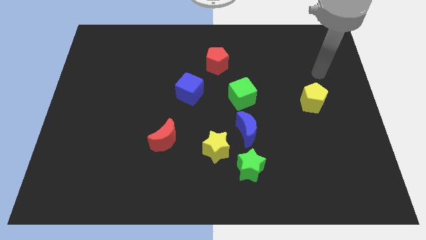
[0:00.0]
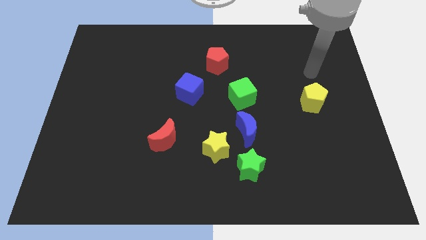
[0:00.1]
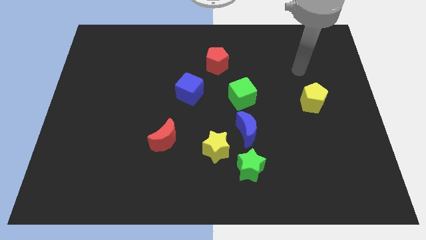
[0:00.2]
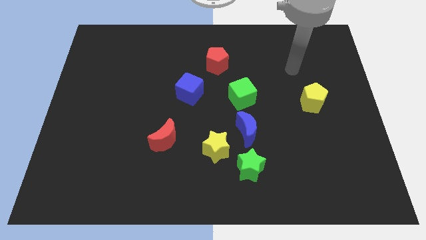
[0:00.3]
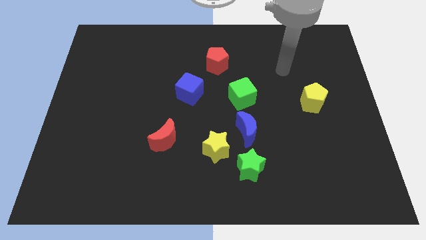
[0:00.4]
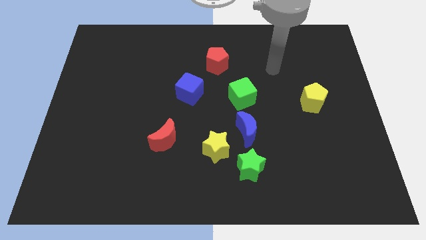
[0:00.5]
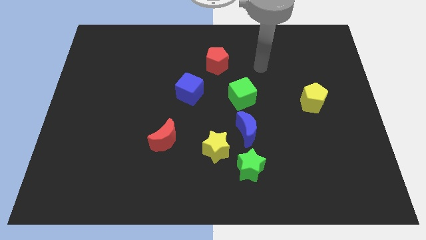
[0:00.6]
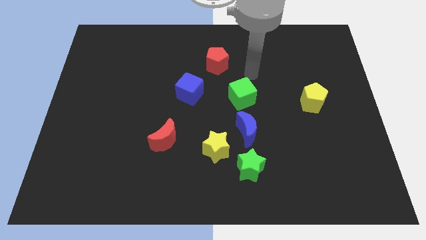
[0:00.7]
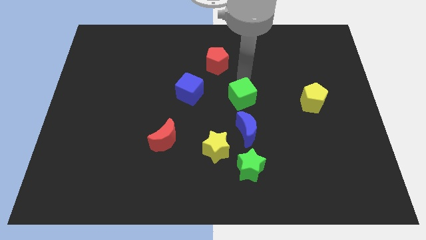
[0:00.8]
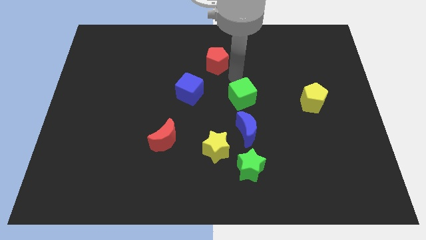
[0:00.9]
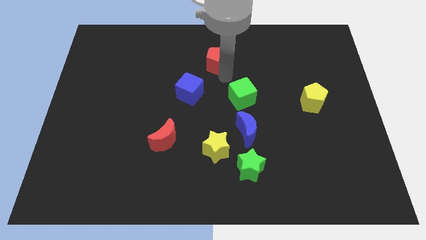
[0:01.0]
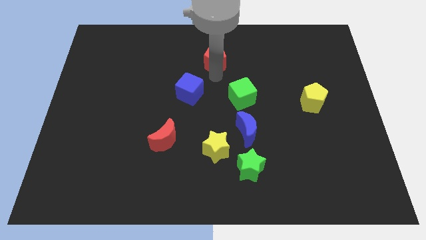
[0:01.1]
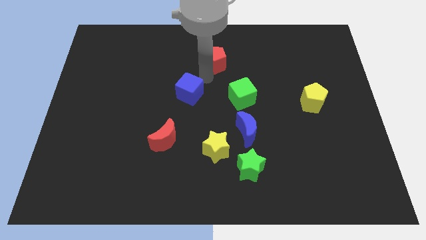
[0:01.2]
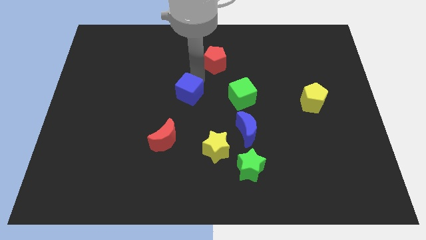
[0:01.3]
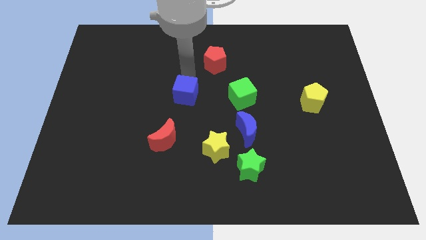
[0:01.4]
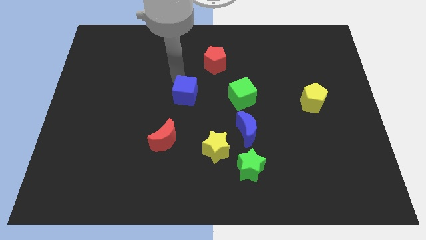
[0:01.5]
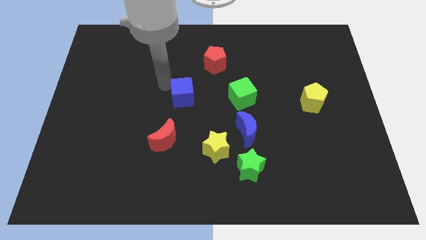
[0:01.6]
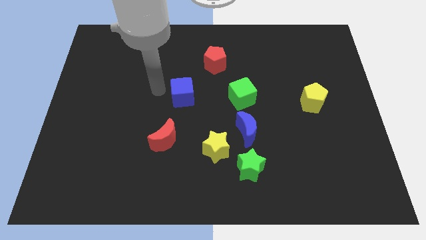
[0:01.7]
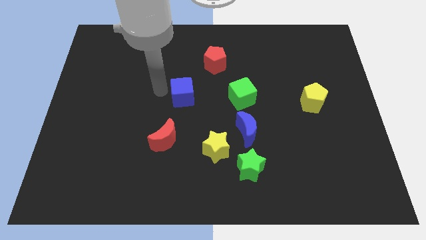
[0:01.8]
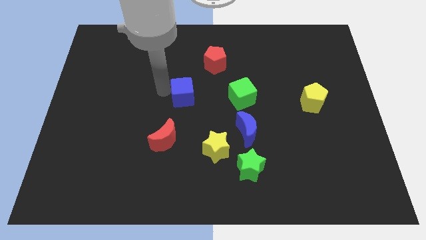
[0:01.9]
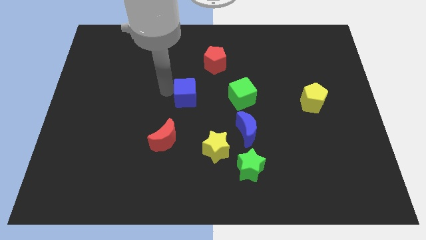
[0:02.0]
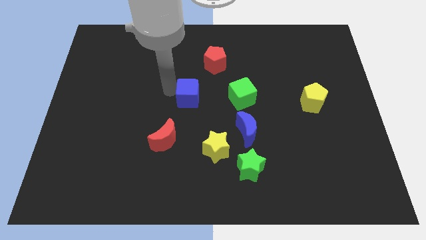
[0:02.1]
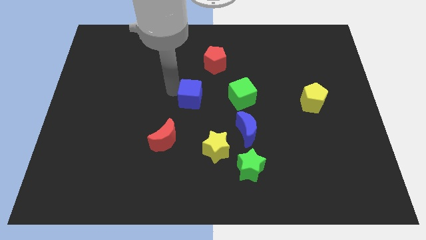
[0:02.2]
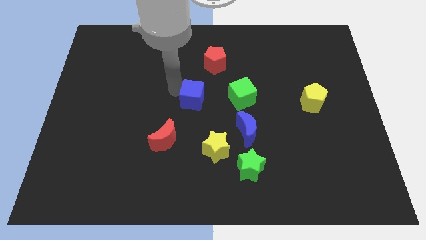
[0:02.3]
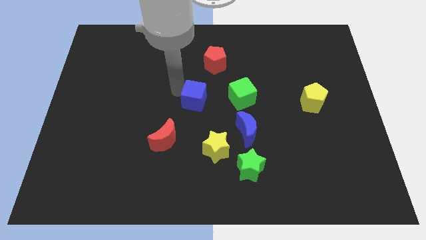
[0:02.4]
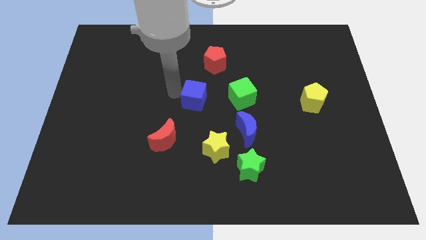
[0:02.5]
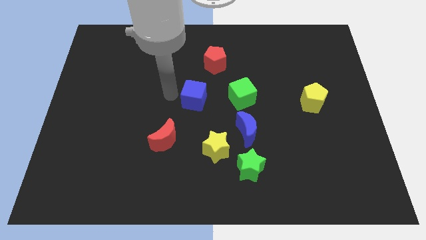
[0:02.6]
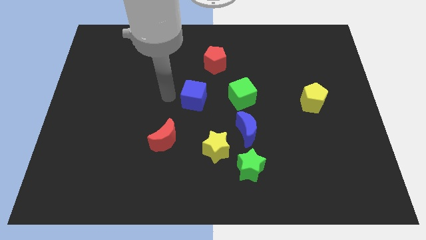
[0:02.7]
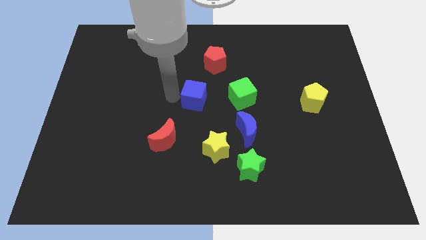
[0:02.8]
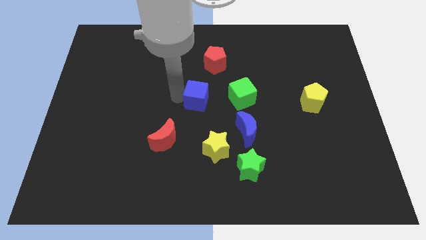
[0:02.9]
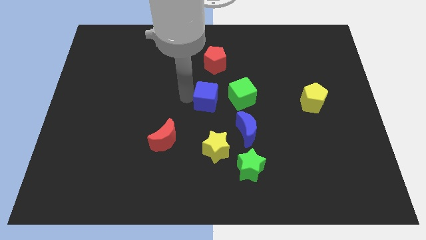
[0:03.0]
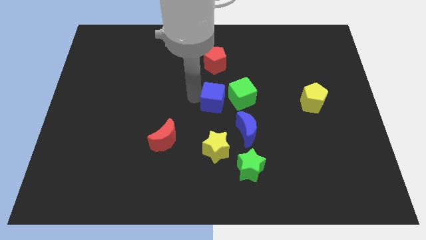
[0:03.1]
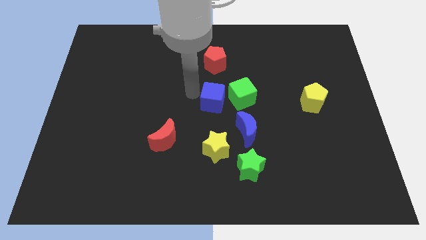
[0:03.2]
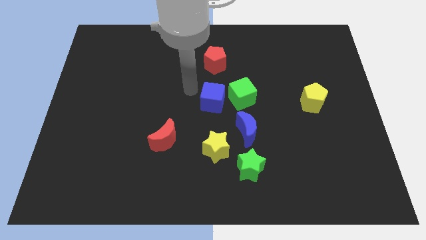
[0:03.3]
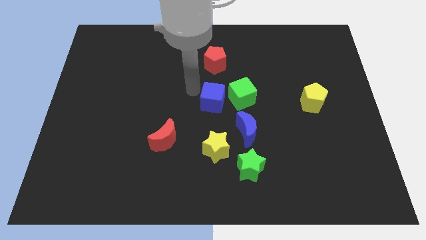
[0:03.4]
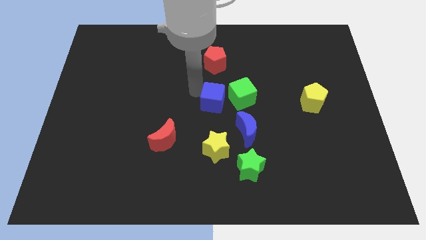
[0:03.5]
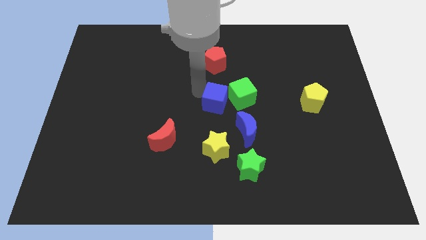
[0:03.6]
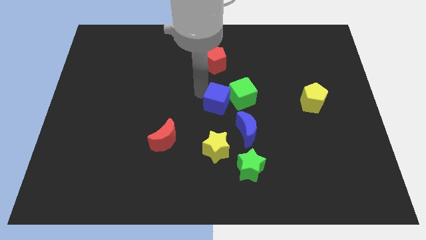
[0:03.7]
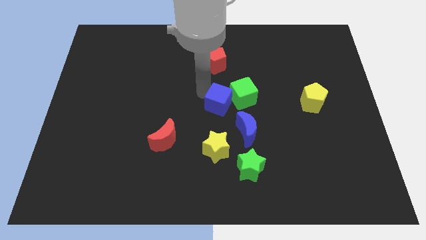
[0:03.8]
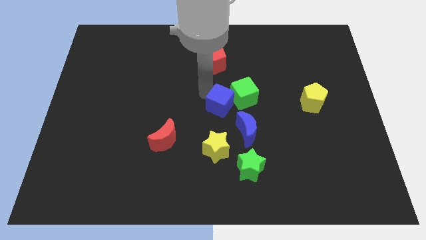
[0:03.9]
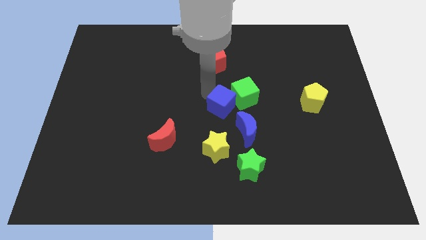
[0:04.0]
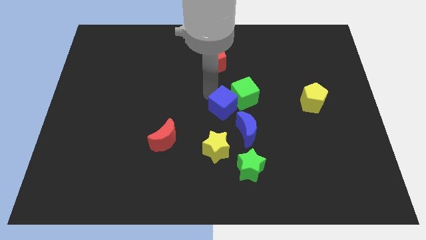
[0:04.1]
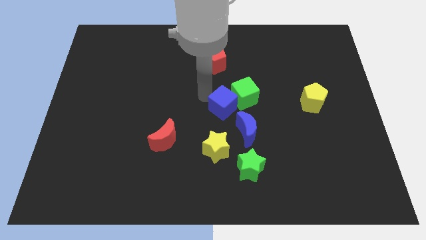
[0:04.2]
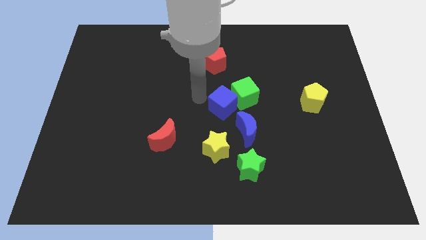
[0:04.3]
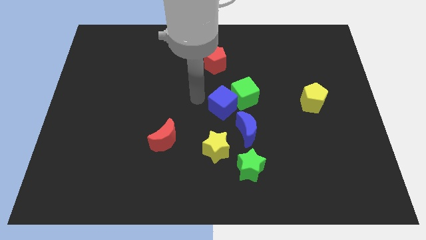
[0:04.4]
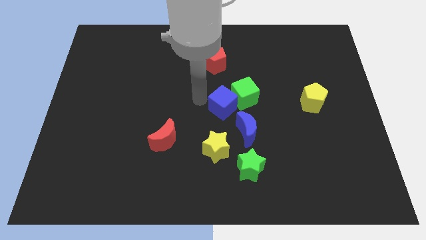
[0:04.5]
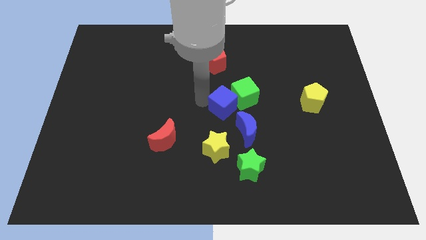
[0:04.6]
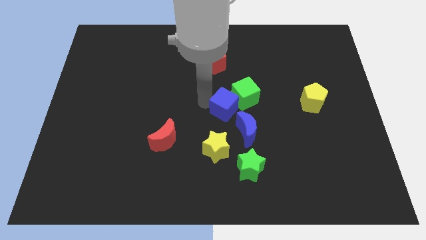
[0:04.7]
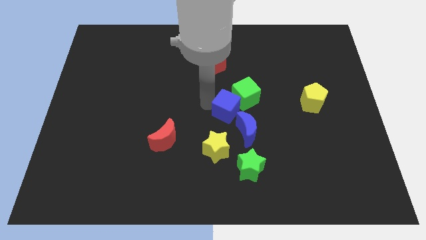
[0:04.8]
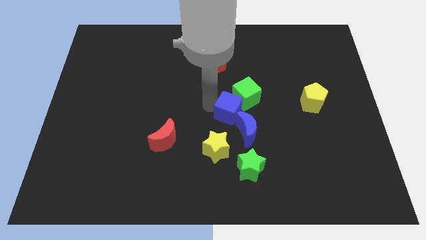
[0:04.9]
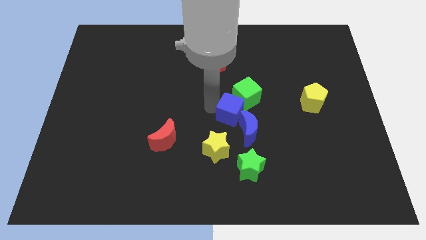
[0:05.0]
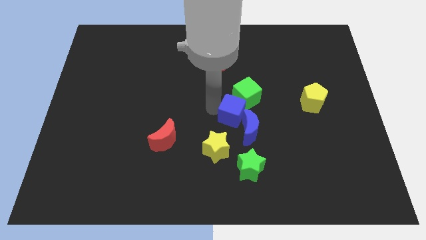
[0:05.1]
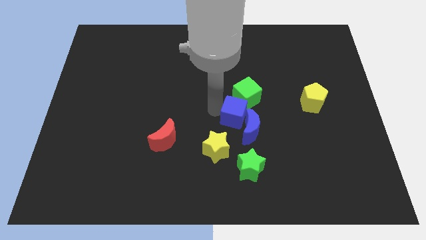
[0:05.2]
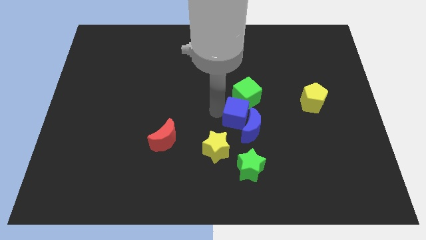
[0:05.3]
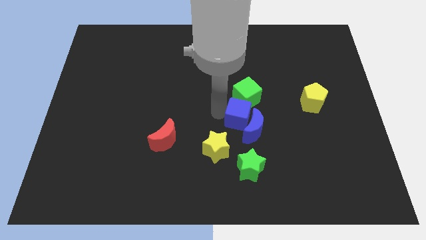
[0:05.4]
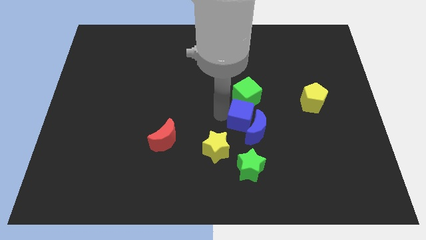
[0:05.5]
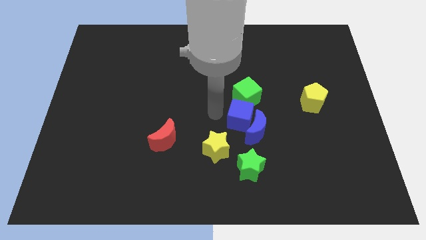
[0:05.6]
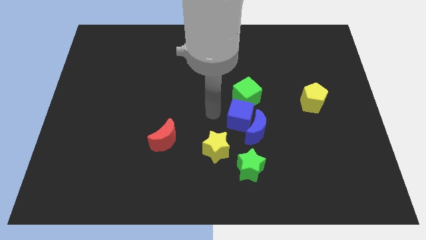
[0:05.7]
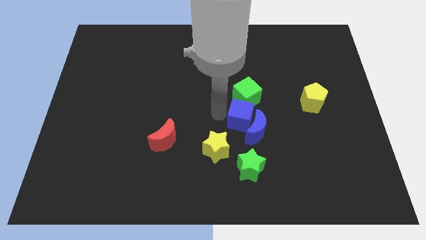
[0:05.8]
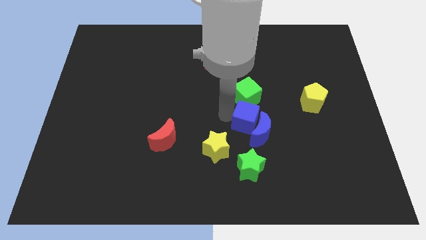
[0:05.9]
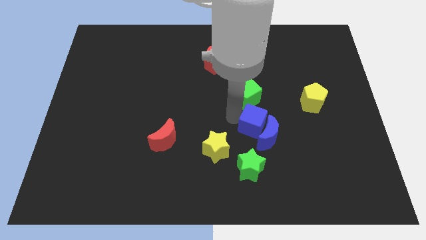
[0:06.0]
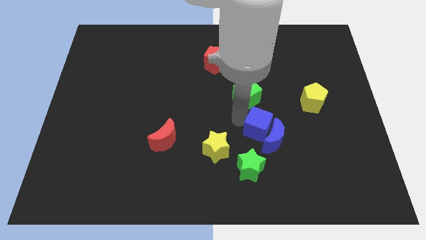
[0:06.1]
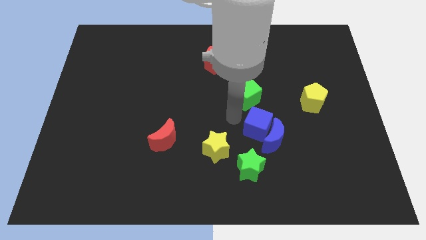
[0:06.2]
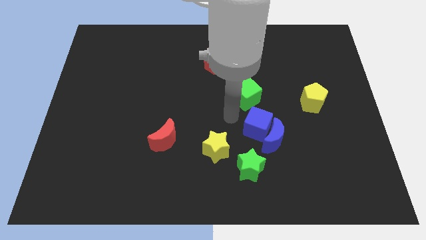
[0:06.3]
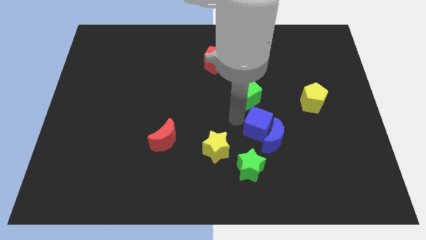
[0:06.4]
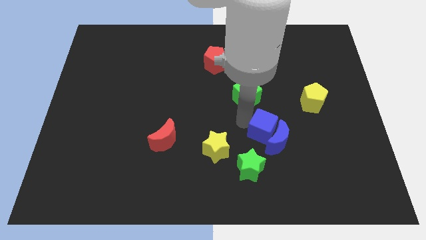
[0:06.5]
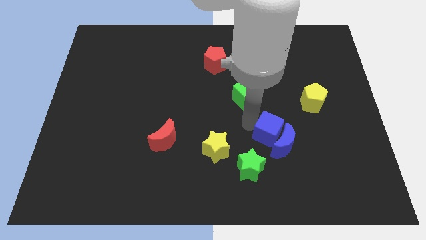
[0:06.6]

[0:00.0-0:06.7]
push the blue cube diagonally downwards and to the right

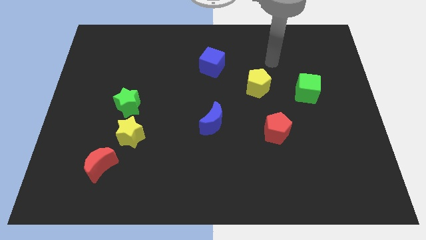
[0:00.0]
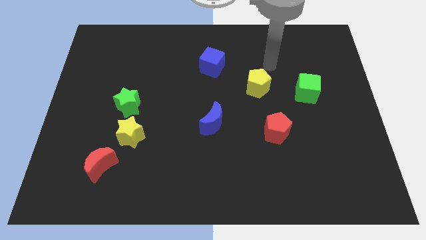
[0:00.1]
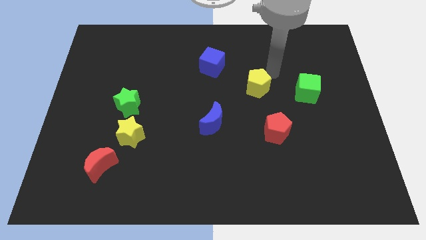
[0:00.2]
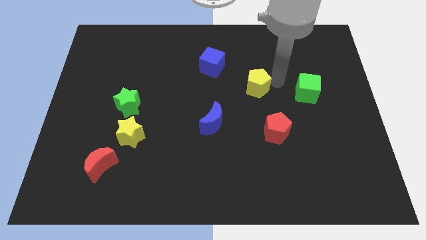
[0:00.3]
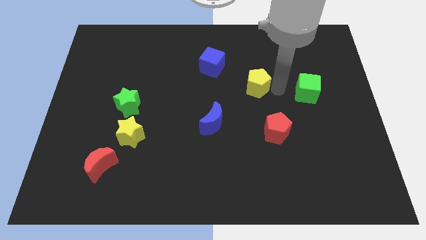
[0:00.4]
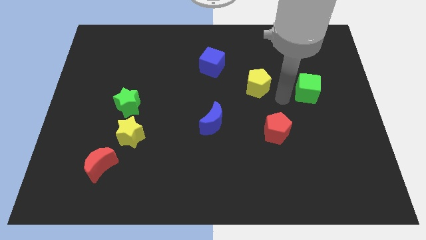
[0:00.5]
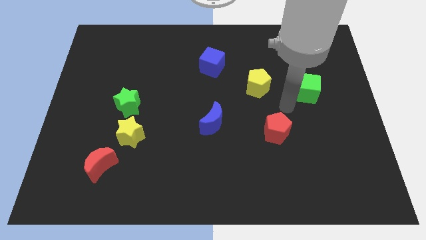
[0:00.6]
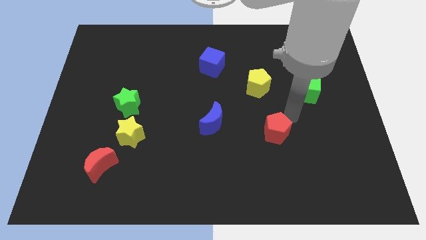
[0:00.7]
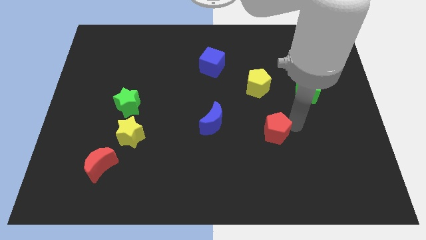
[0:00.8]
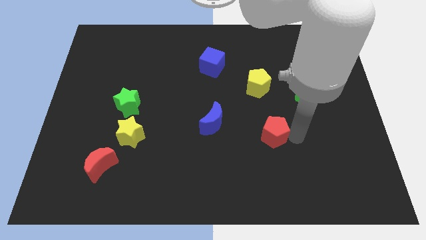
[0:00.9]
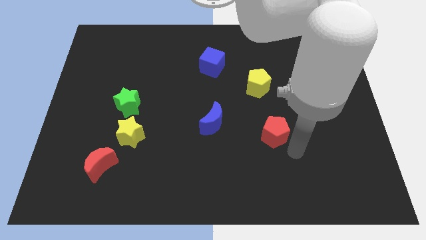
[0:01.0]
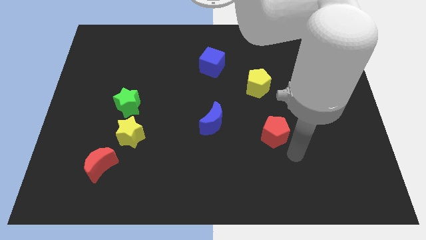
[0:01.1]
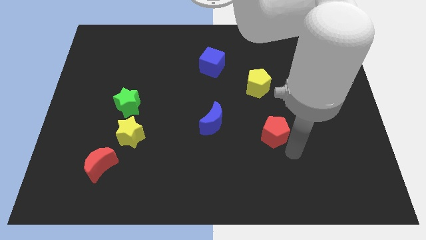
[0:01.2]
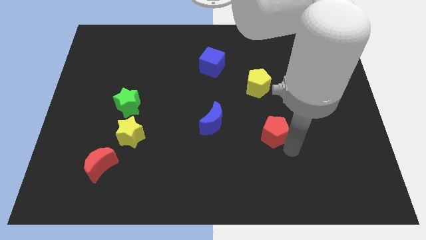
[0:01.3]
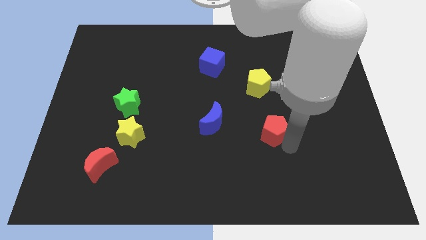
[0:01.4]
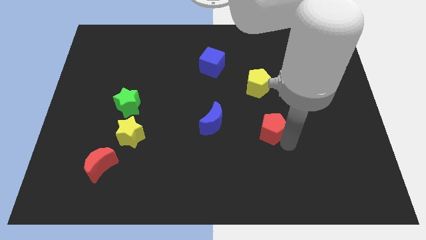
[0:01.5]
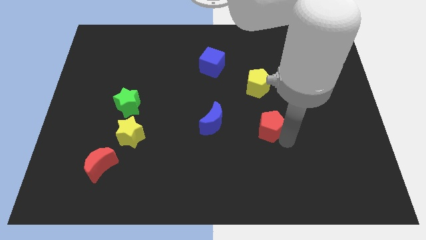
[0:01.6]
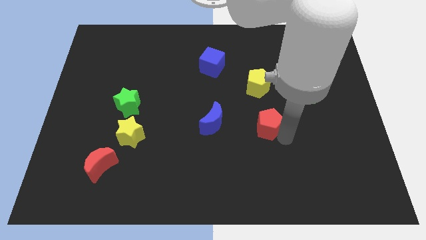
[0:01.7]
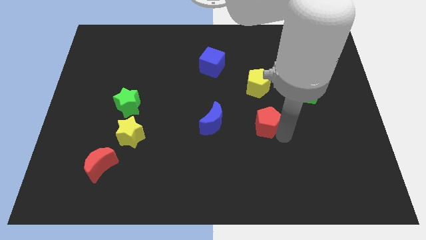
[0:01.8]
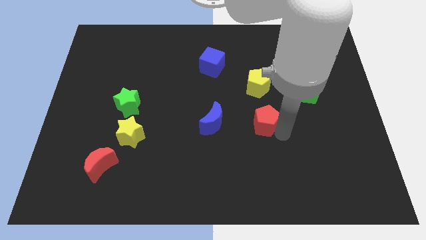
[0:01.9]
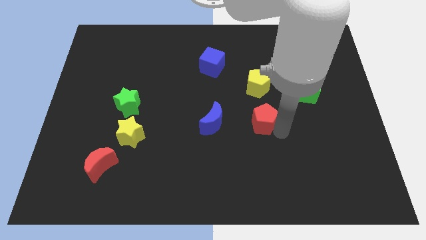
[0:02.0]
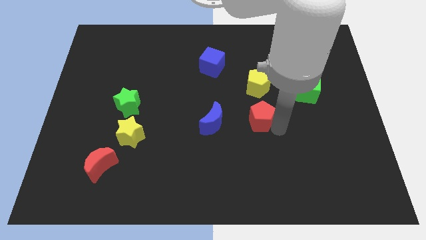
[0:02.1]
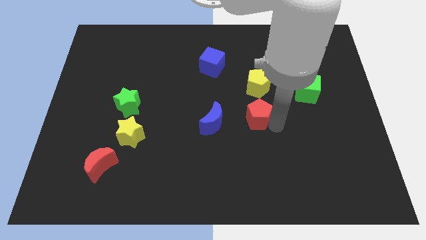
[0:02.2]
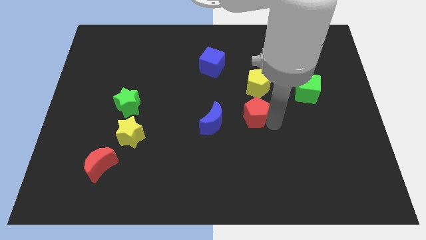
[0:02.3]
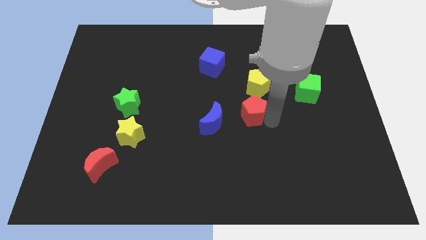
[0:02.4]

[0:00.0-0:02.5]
push the red pentagon somewhat upwards and left
